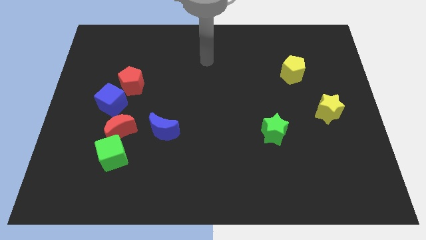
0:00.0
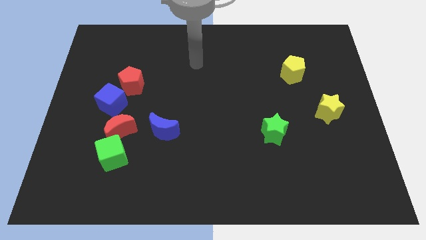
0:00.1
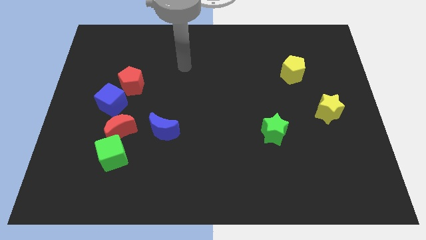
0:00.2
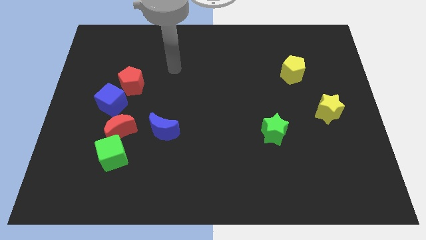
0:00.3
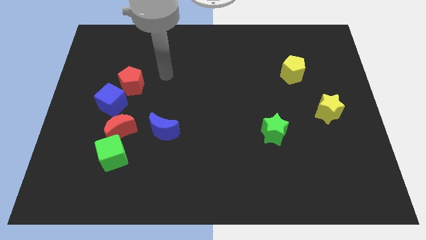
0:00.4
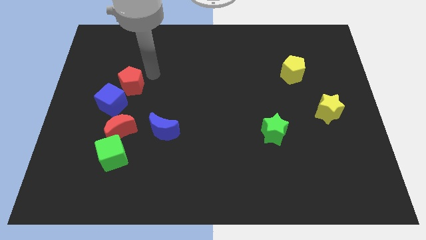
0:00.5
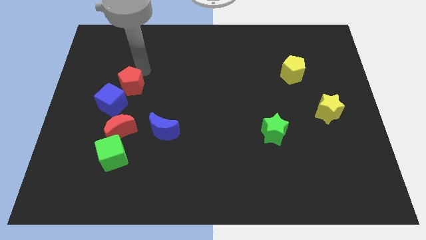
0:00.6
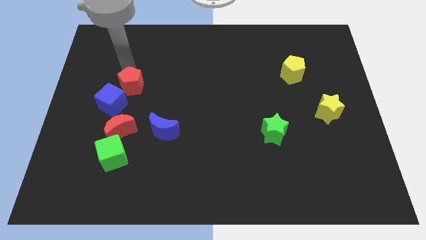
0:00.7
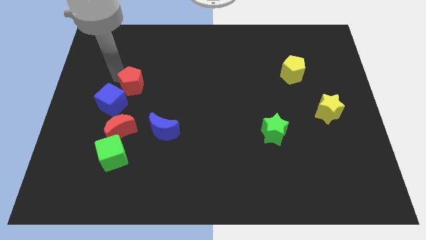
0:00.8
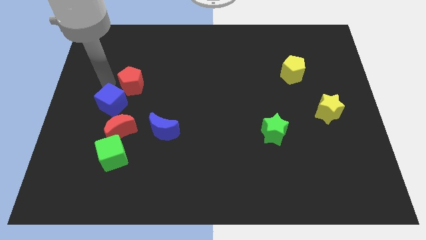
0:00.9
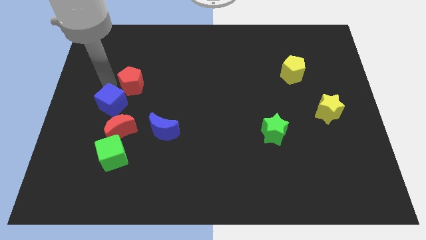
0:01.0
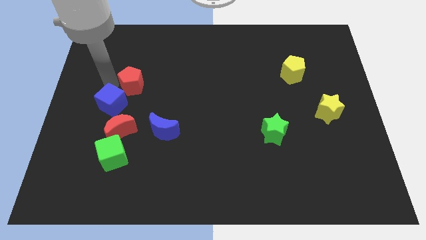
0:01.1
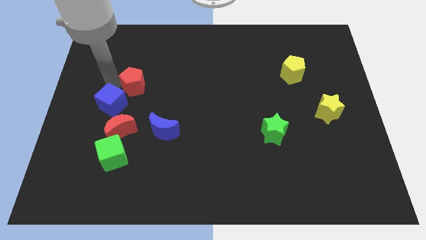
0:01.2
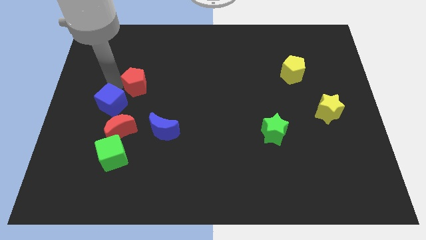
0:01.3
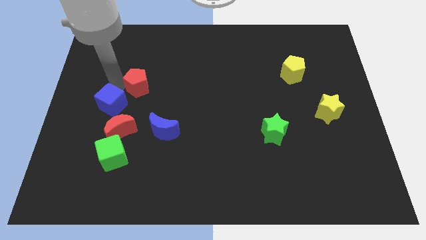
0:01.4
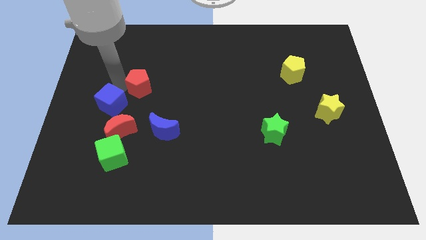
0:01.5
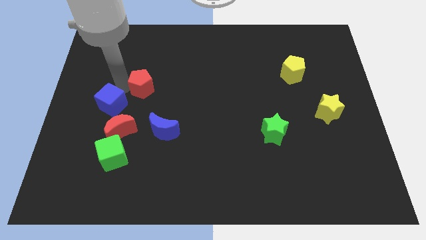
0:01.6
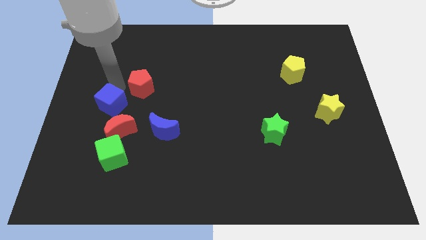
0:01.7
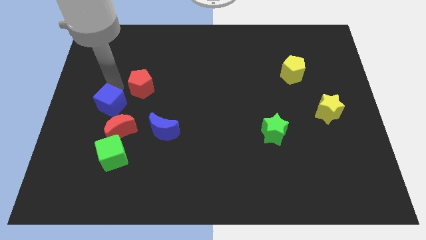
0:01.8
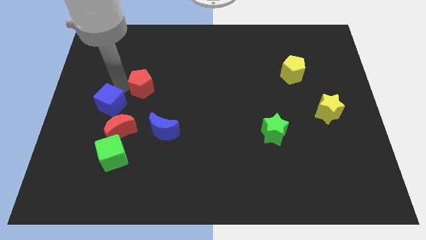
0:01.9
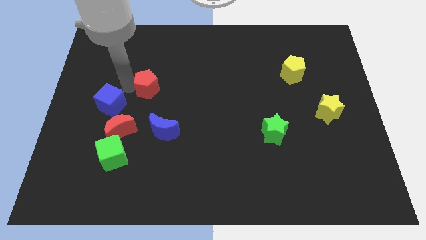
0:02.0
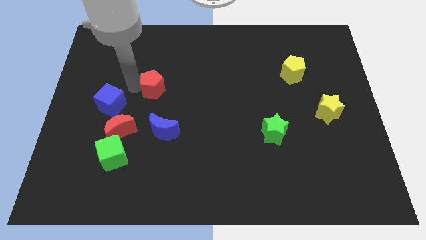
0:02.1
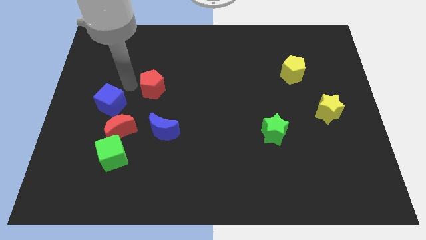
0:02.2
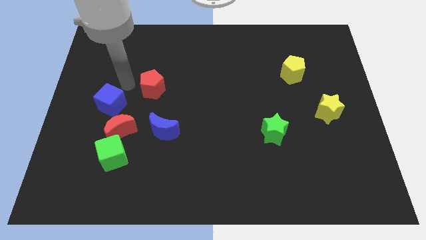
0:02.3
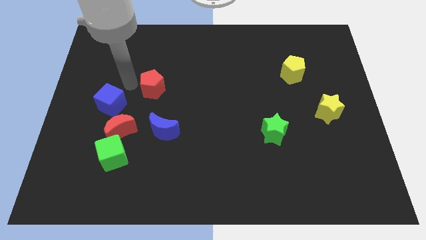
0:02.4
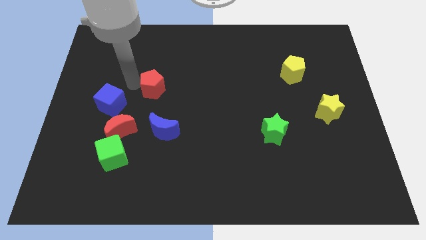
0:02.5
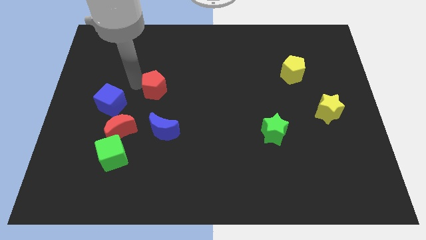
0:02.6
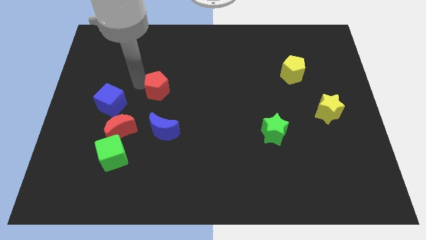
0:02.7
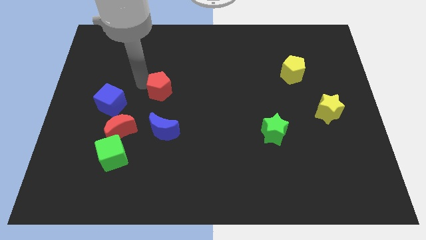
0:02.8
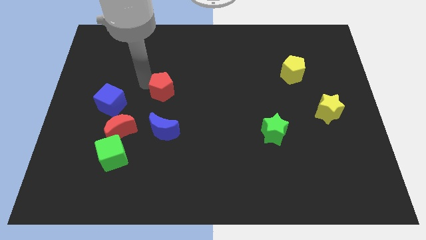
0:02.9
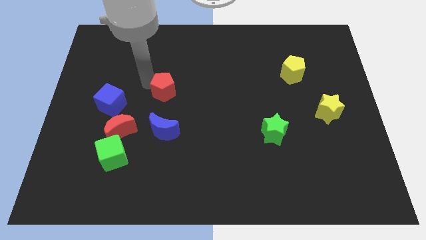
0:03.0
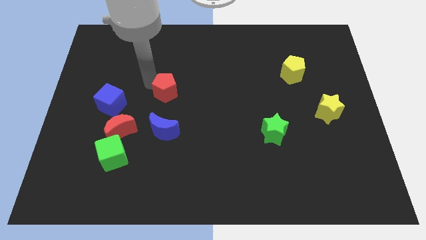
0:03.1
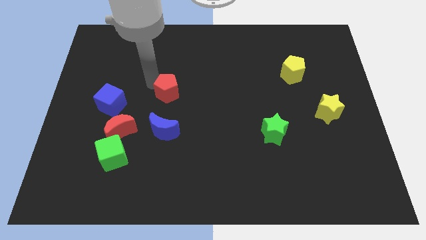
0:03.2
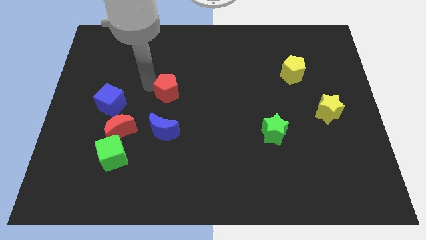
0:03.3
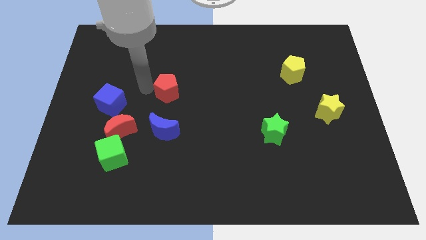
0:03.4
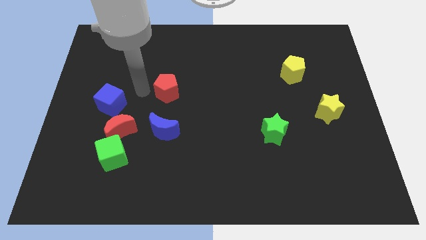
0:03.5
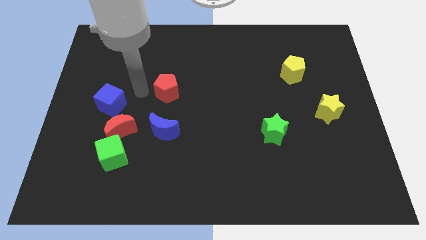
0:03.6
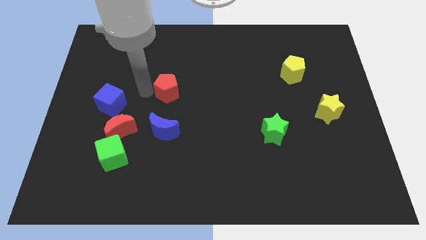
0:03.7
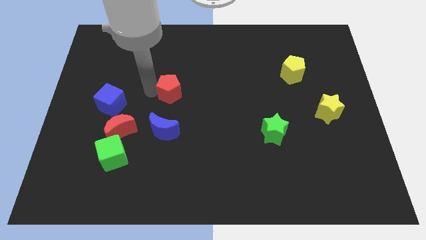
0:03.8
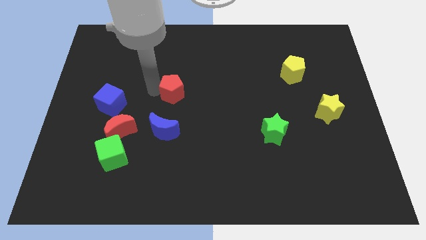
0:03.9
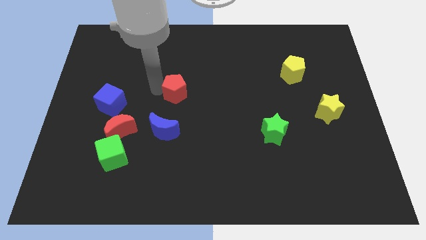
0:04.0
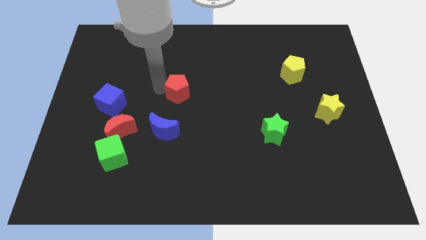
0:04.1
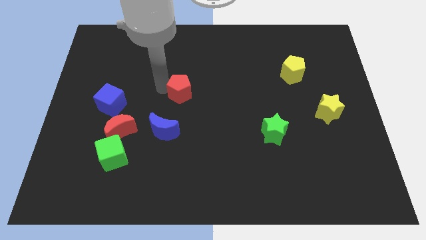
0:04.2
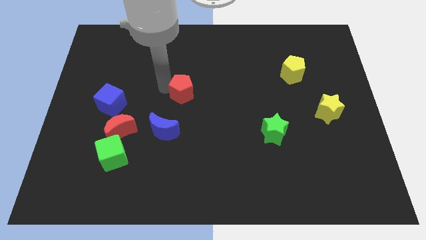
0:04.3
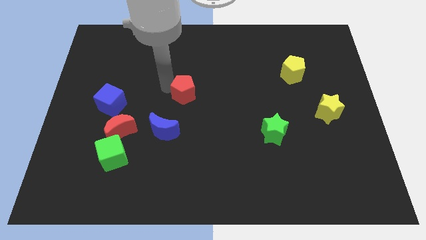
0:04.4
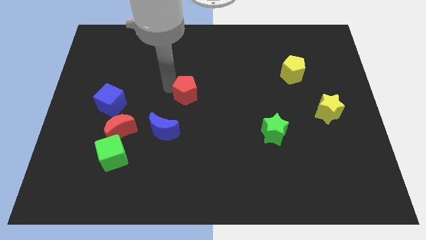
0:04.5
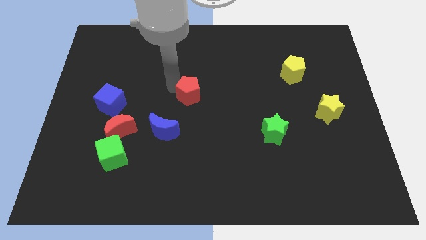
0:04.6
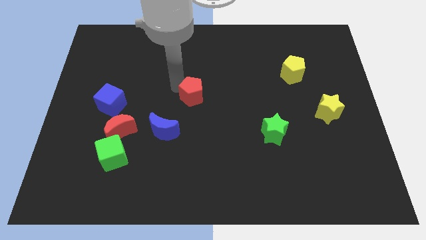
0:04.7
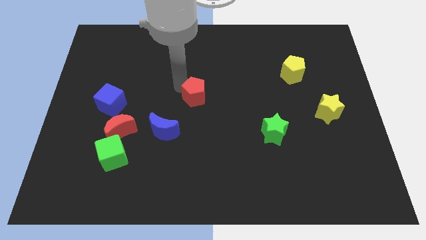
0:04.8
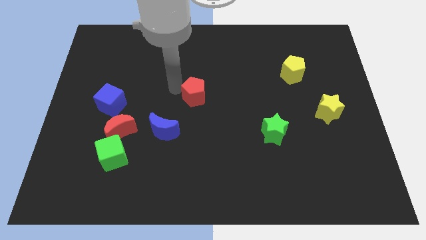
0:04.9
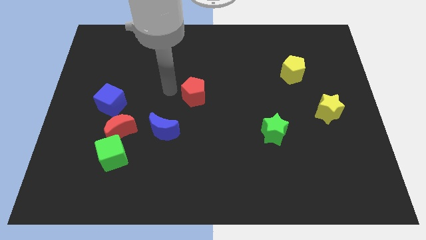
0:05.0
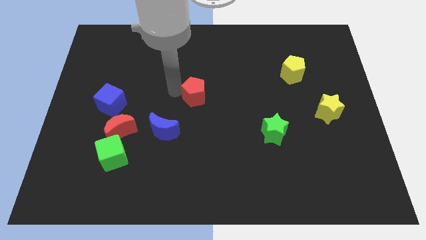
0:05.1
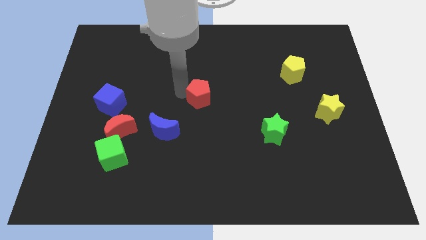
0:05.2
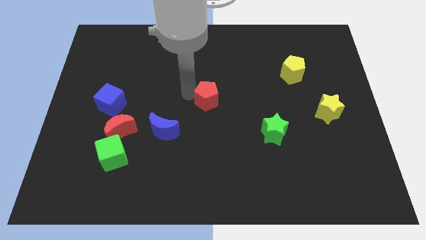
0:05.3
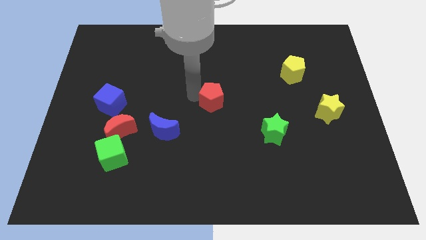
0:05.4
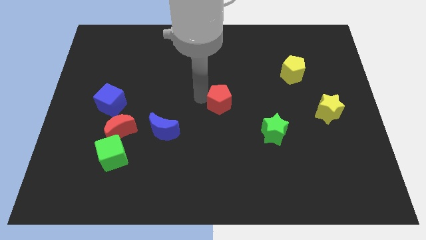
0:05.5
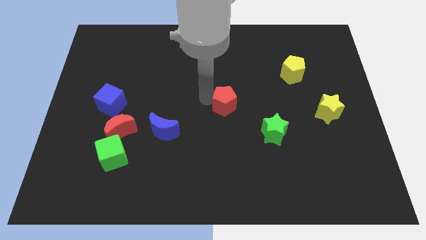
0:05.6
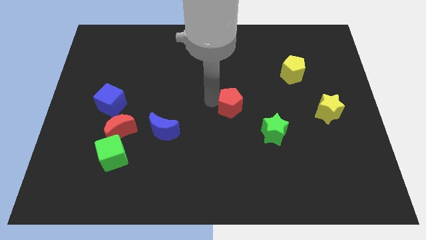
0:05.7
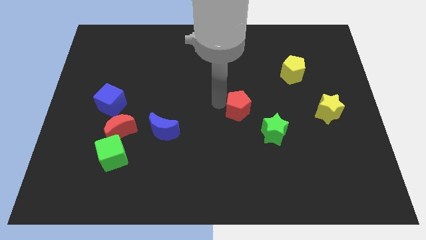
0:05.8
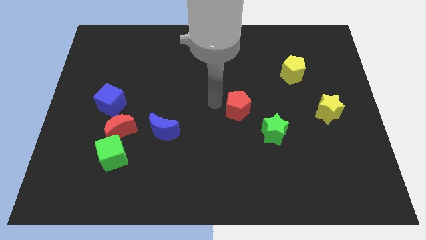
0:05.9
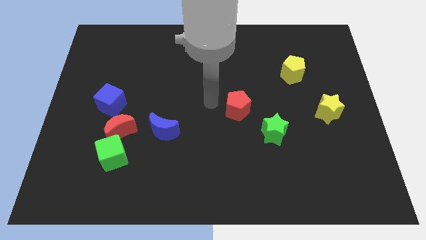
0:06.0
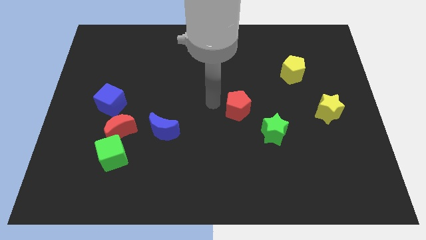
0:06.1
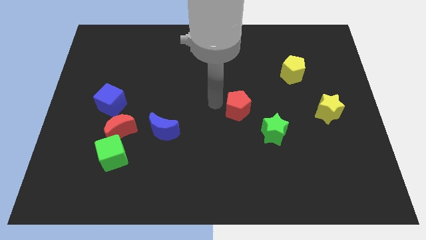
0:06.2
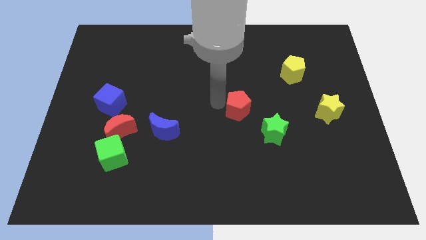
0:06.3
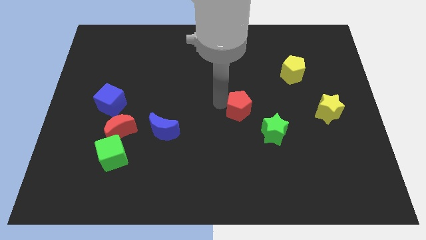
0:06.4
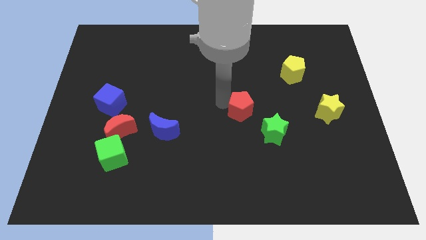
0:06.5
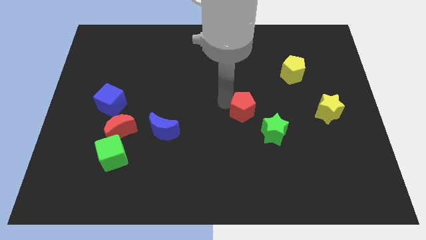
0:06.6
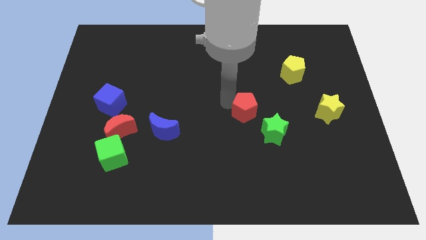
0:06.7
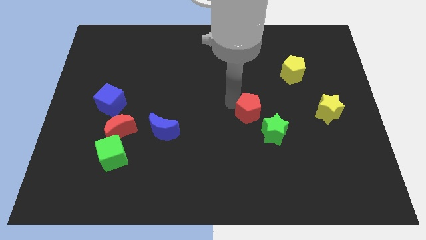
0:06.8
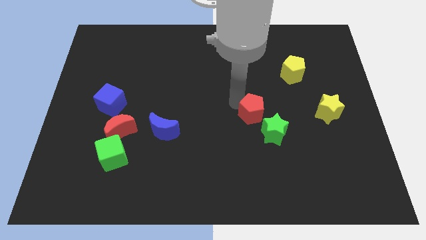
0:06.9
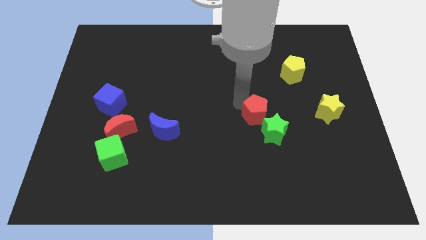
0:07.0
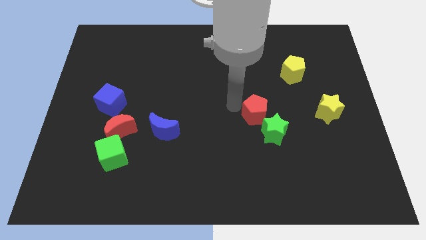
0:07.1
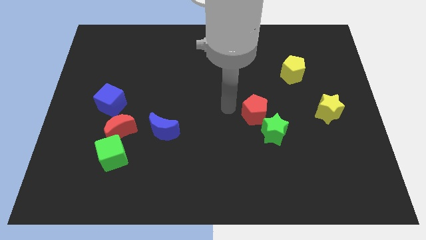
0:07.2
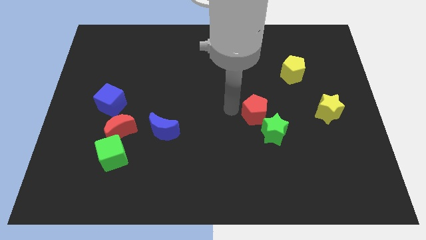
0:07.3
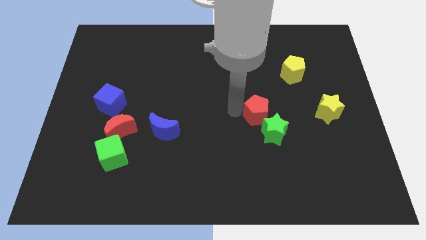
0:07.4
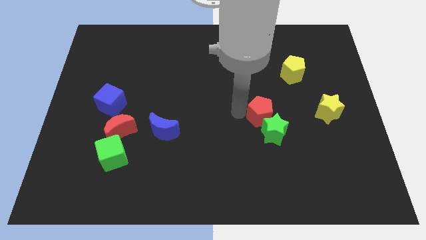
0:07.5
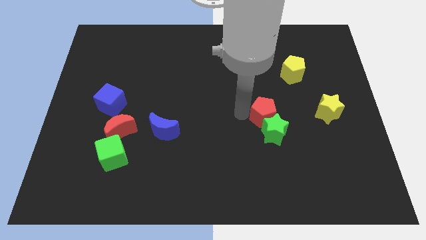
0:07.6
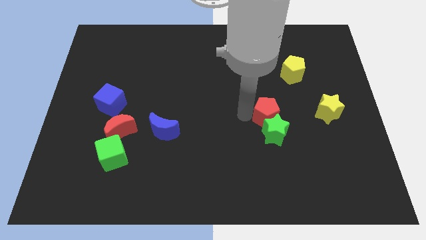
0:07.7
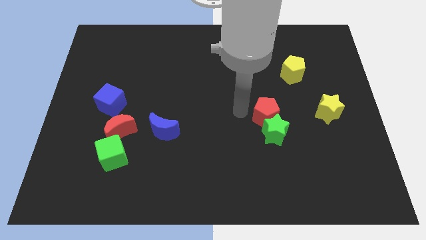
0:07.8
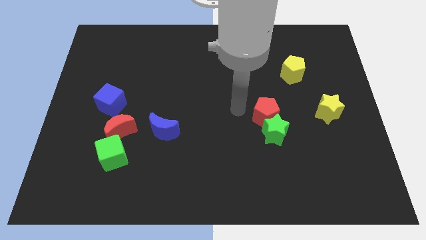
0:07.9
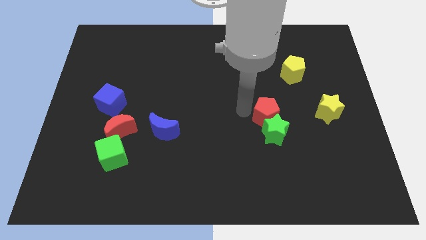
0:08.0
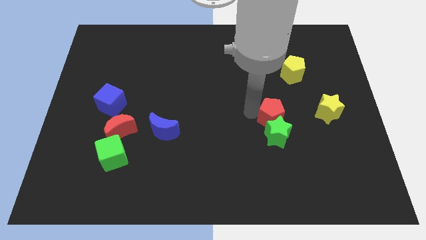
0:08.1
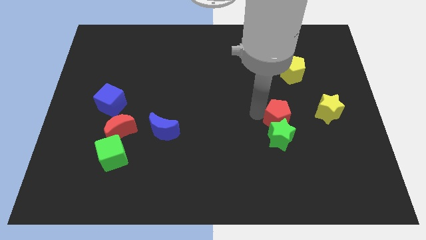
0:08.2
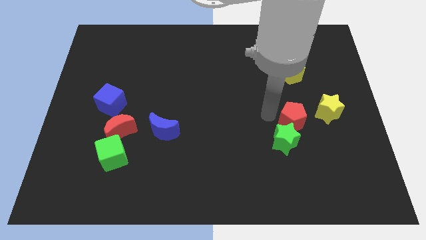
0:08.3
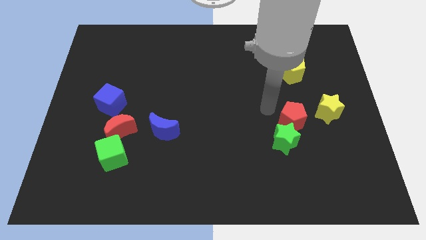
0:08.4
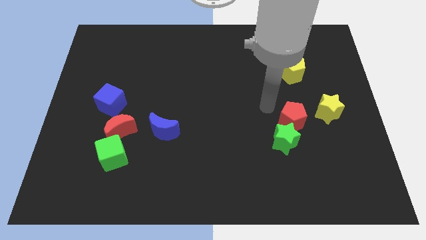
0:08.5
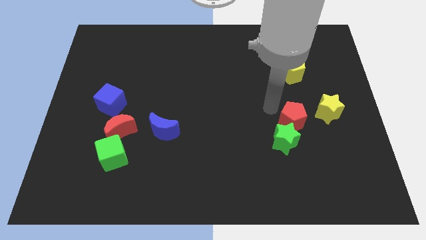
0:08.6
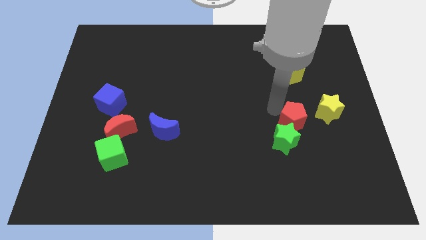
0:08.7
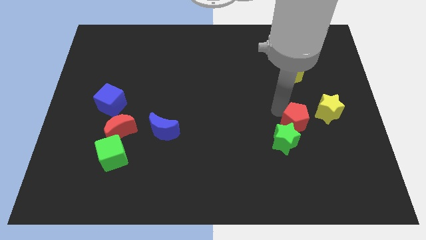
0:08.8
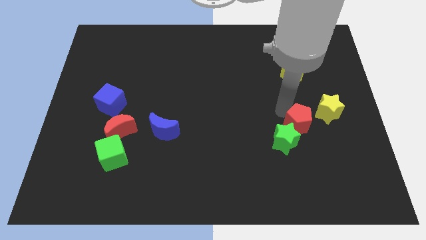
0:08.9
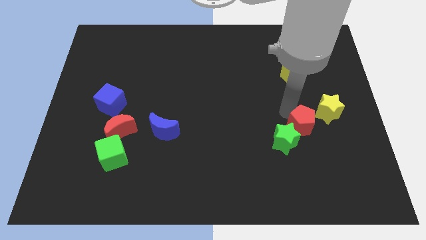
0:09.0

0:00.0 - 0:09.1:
move the red pentagon to the right of the green star
